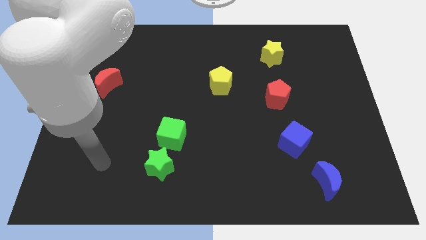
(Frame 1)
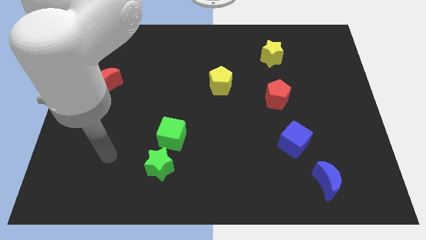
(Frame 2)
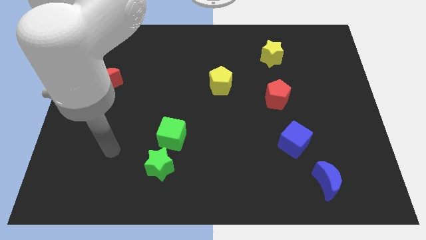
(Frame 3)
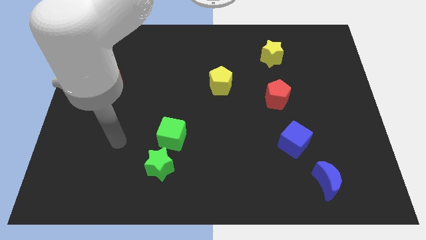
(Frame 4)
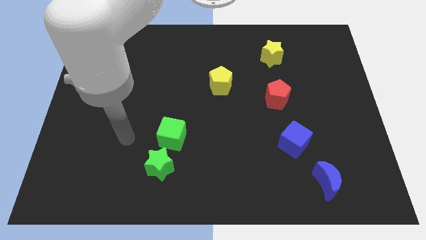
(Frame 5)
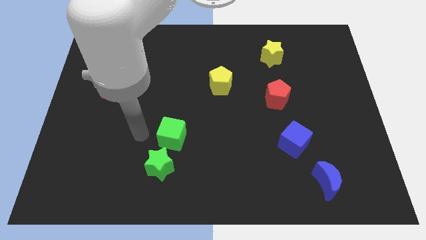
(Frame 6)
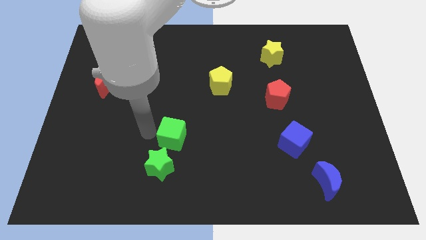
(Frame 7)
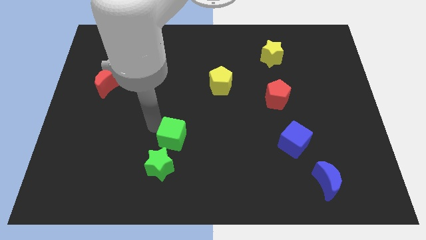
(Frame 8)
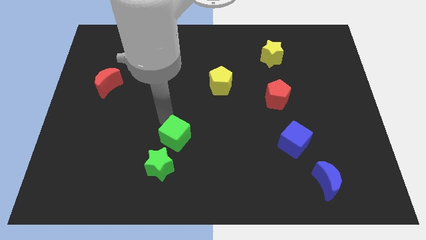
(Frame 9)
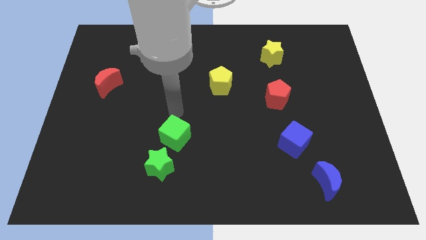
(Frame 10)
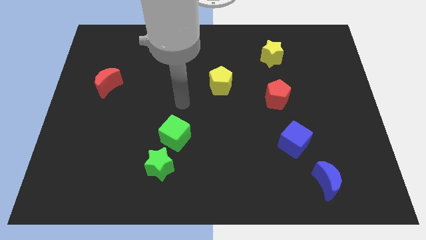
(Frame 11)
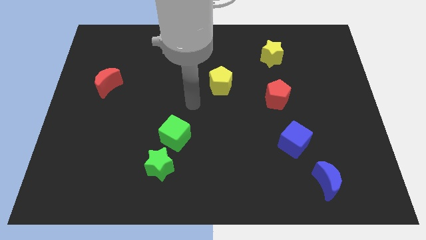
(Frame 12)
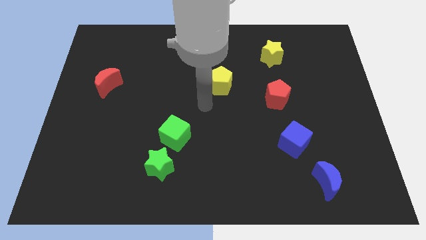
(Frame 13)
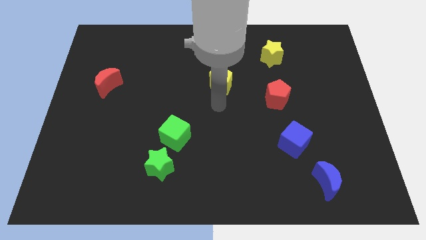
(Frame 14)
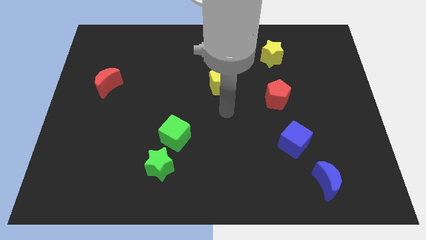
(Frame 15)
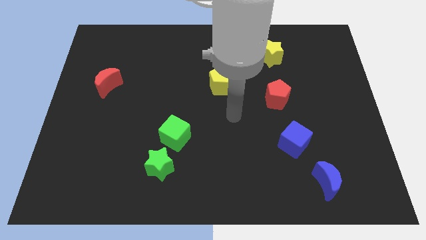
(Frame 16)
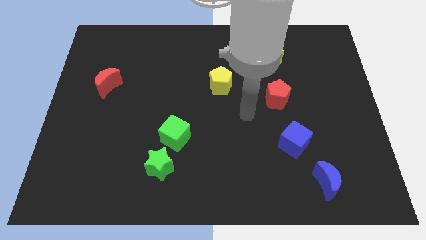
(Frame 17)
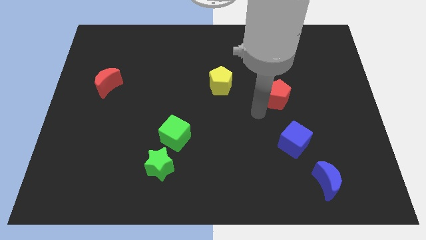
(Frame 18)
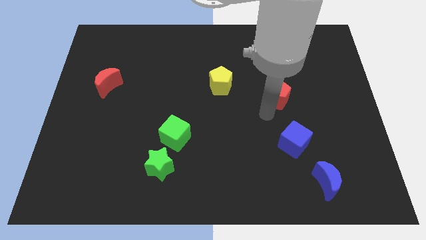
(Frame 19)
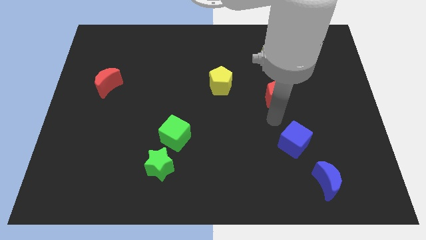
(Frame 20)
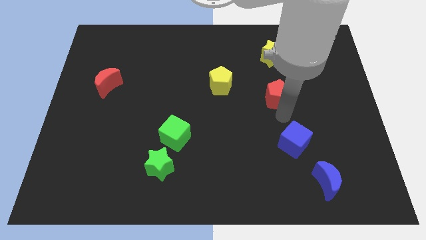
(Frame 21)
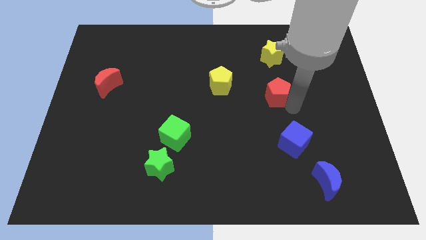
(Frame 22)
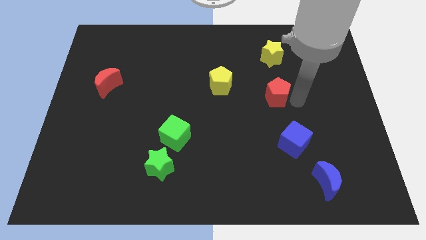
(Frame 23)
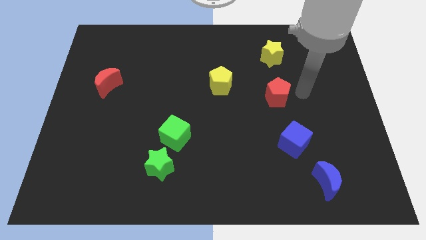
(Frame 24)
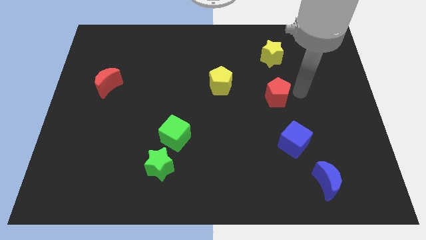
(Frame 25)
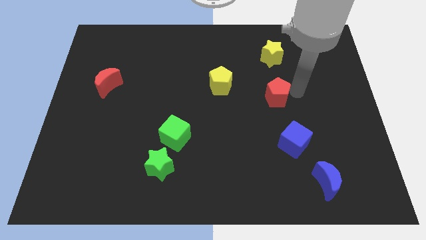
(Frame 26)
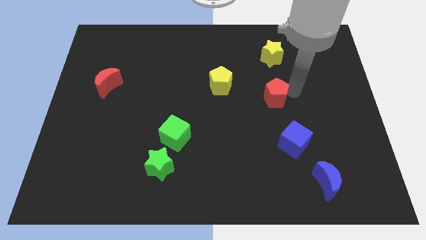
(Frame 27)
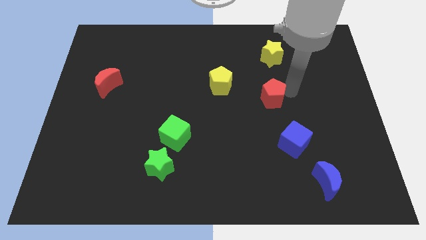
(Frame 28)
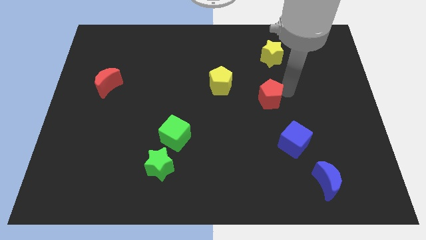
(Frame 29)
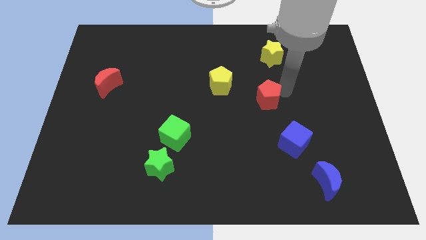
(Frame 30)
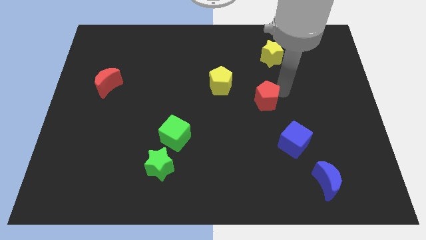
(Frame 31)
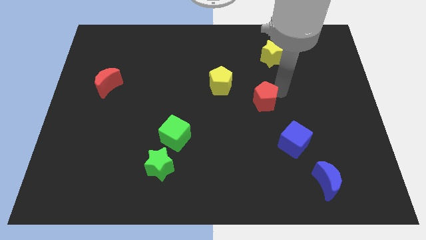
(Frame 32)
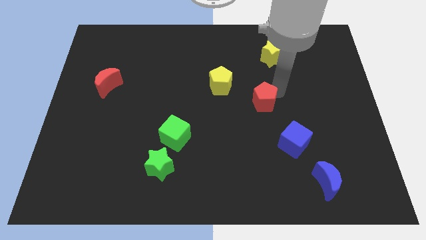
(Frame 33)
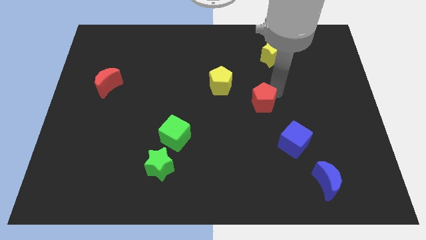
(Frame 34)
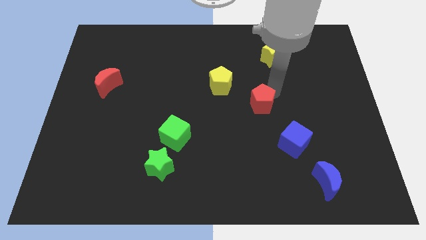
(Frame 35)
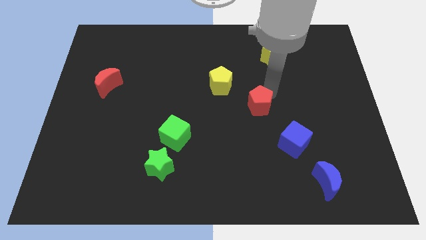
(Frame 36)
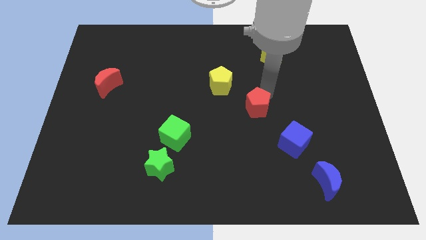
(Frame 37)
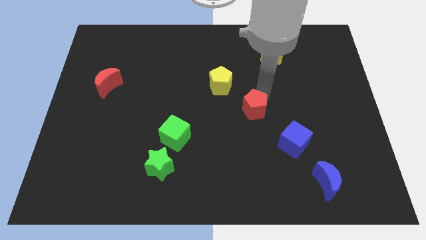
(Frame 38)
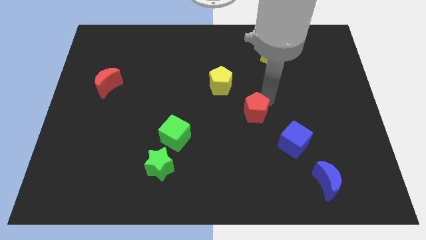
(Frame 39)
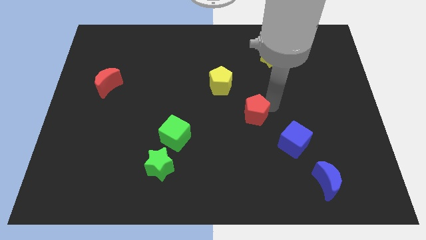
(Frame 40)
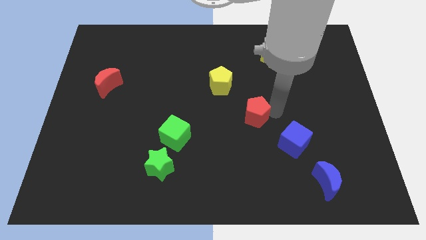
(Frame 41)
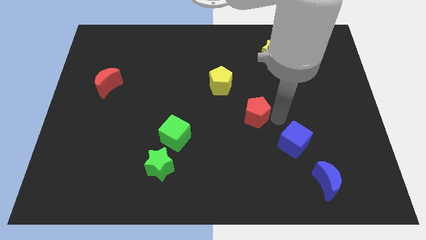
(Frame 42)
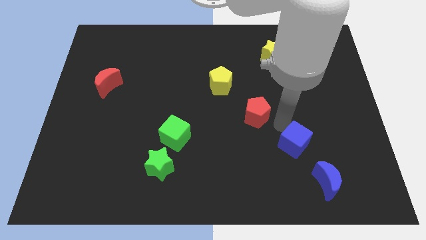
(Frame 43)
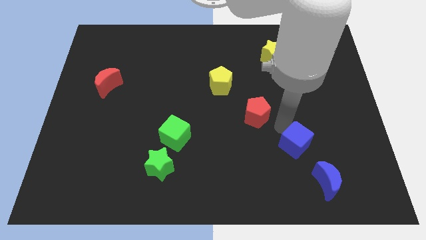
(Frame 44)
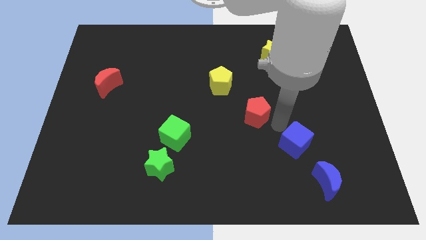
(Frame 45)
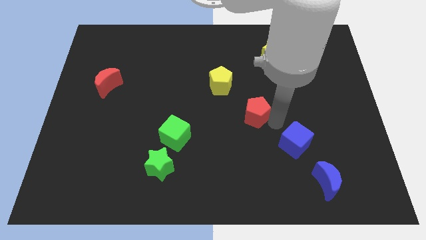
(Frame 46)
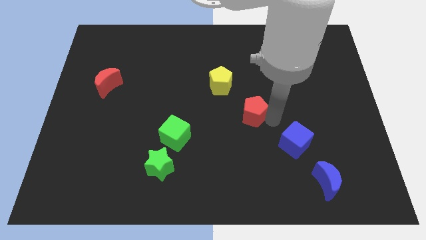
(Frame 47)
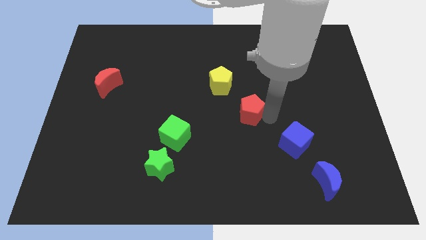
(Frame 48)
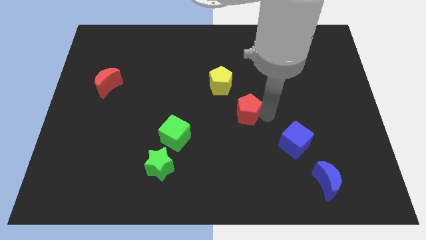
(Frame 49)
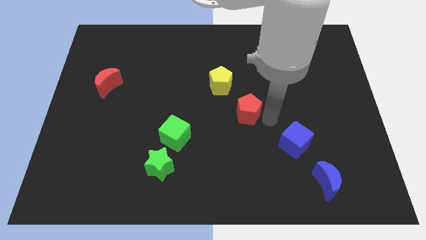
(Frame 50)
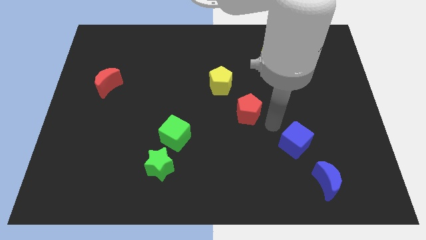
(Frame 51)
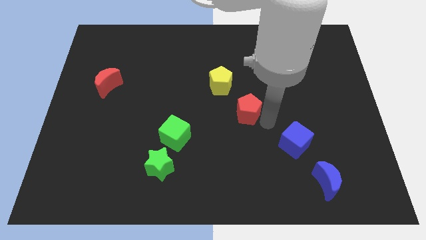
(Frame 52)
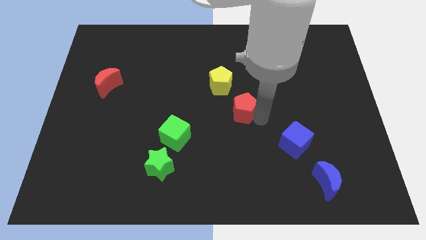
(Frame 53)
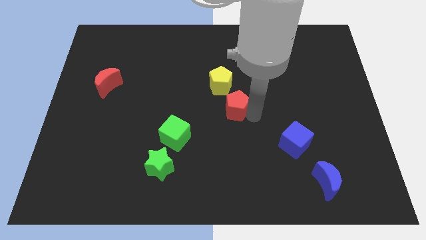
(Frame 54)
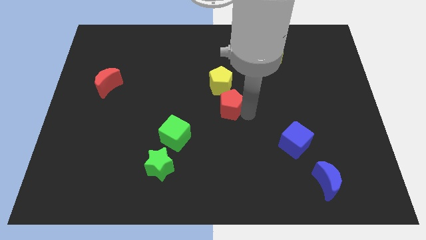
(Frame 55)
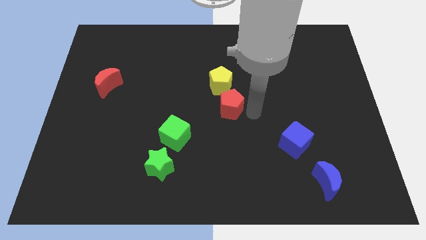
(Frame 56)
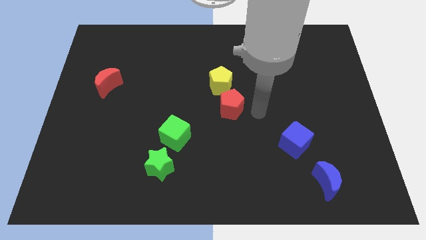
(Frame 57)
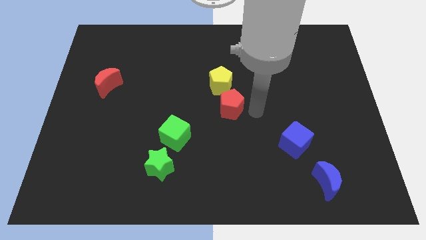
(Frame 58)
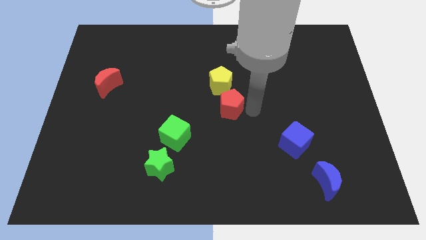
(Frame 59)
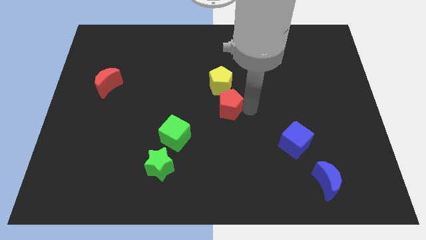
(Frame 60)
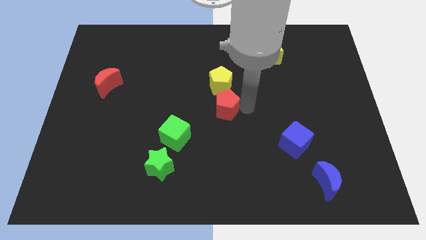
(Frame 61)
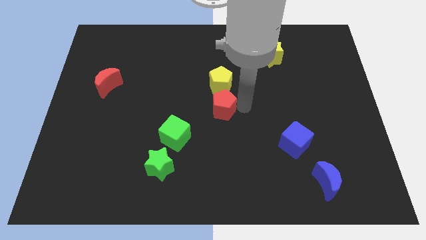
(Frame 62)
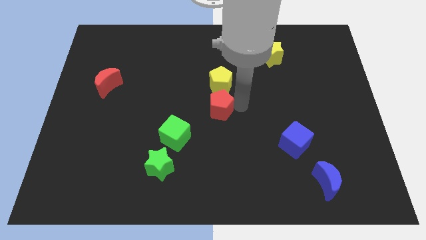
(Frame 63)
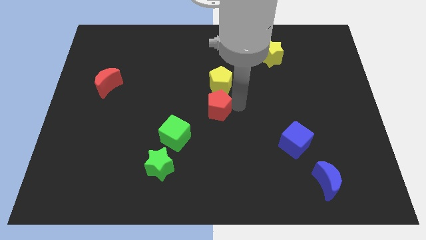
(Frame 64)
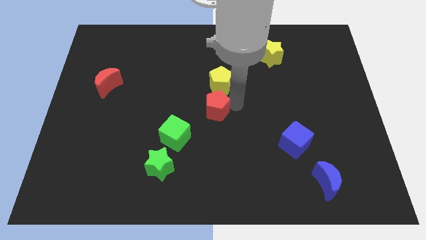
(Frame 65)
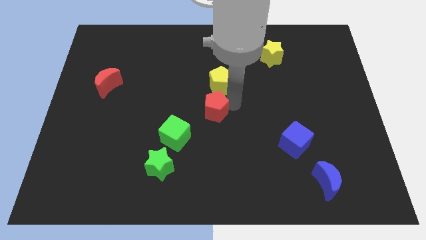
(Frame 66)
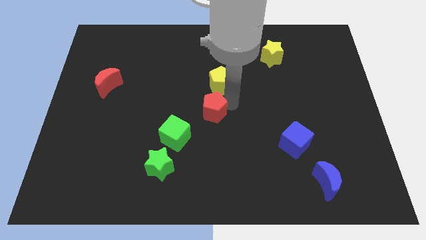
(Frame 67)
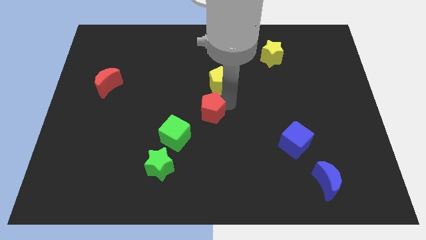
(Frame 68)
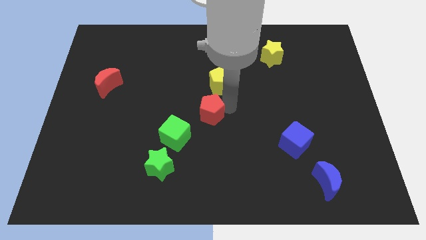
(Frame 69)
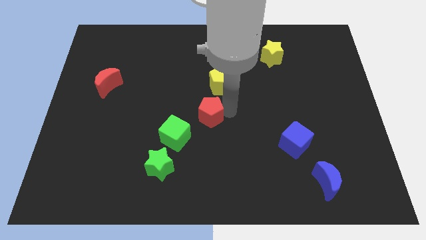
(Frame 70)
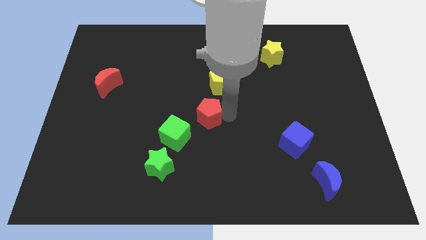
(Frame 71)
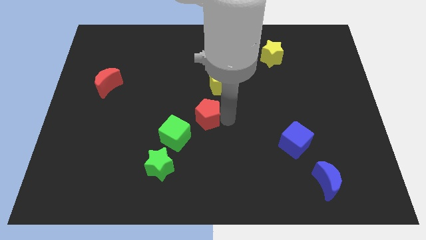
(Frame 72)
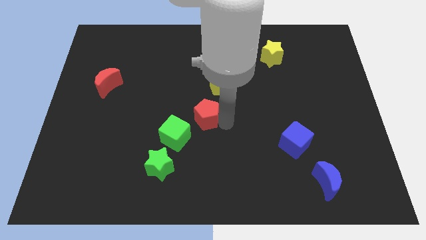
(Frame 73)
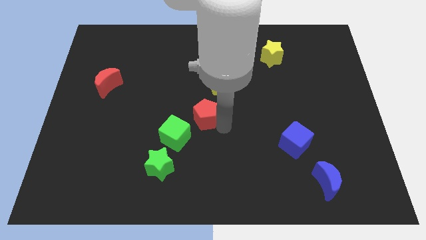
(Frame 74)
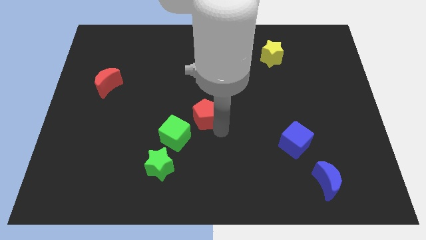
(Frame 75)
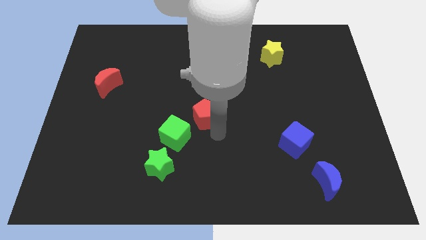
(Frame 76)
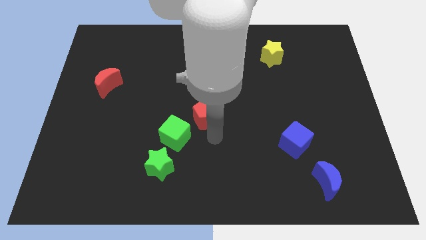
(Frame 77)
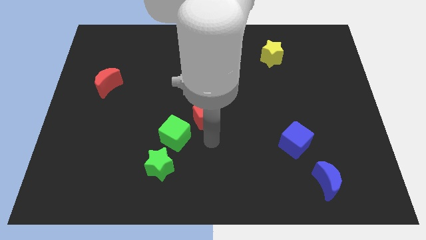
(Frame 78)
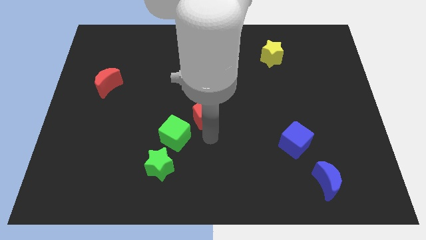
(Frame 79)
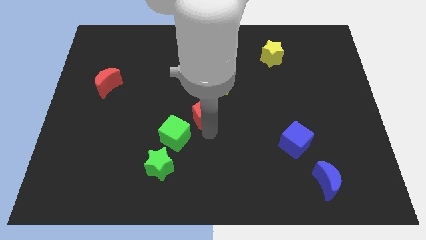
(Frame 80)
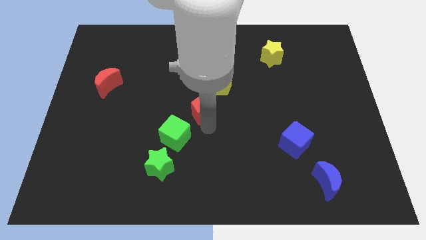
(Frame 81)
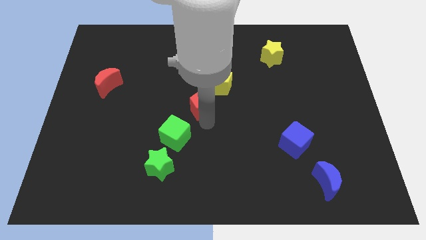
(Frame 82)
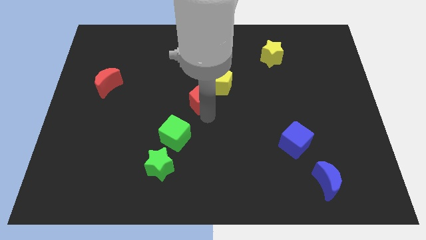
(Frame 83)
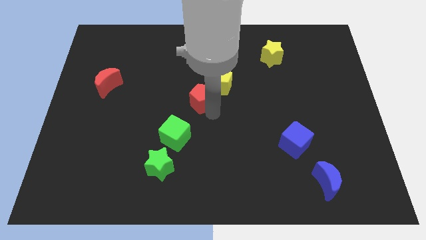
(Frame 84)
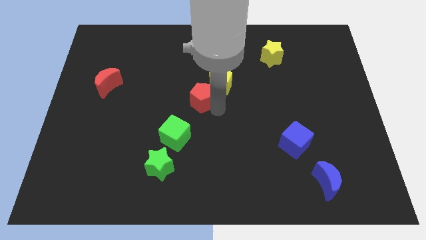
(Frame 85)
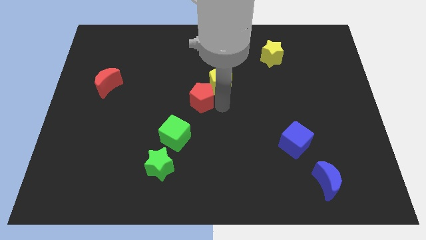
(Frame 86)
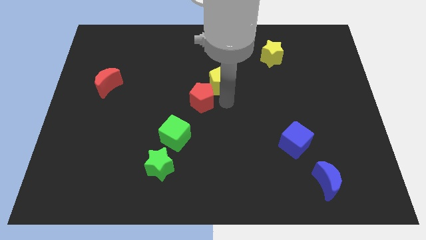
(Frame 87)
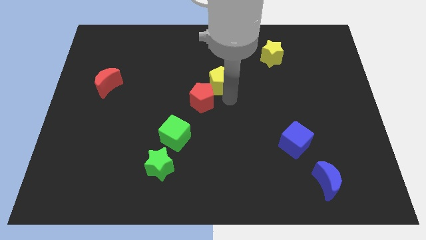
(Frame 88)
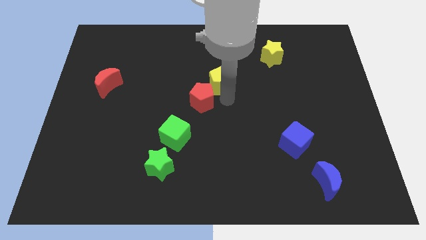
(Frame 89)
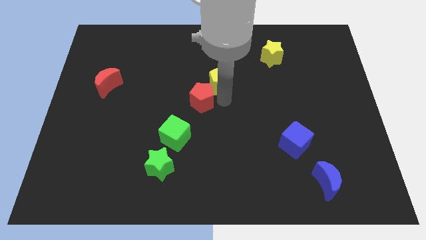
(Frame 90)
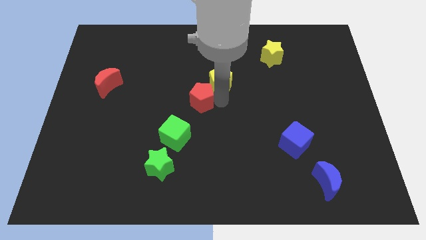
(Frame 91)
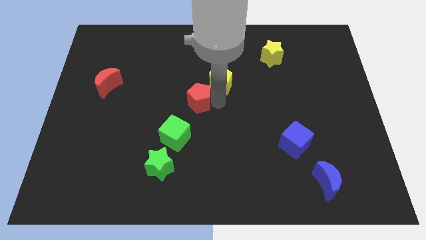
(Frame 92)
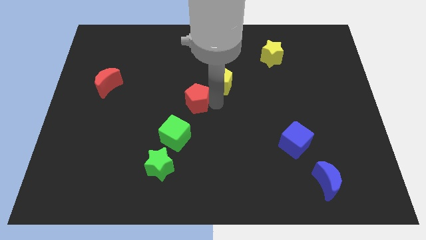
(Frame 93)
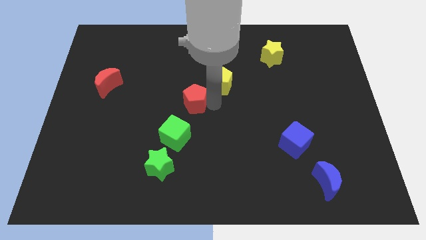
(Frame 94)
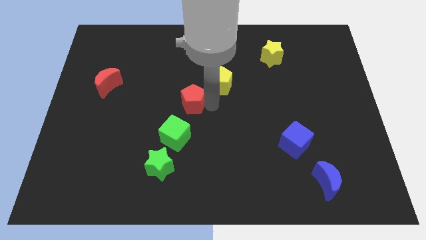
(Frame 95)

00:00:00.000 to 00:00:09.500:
move the red pentagon left
